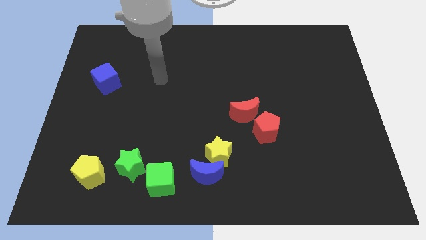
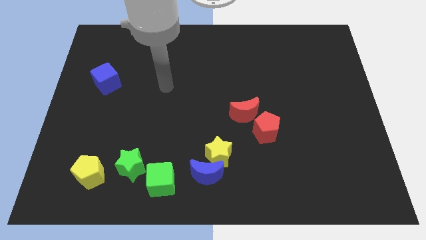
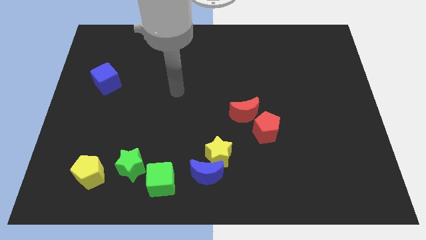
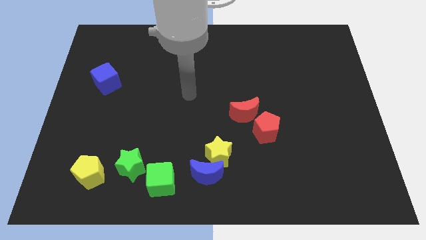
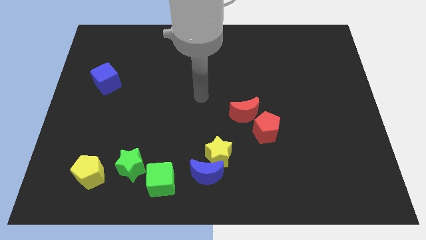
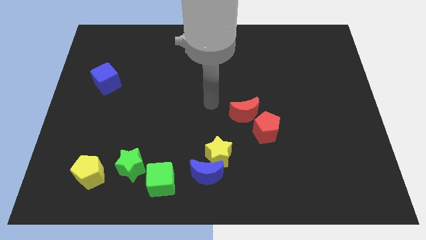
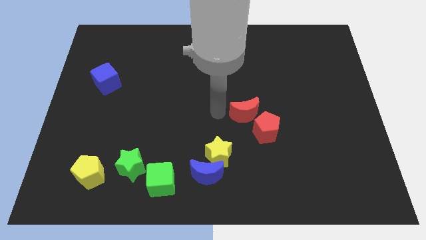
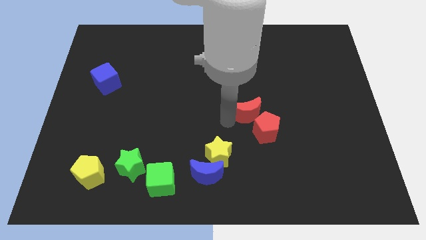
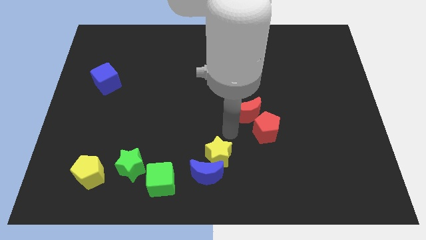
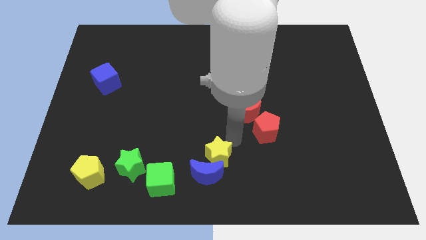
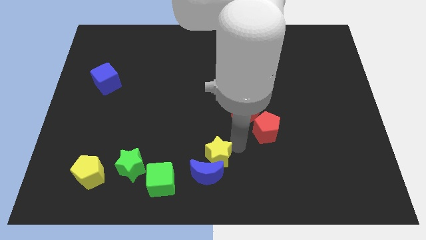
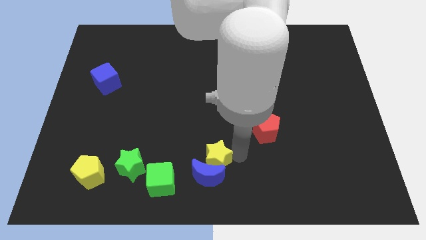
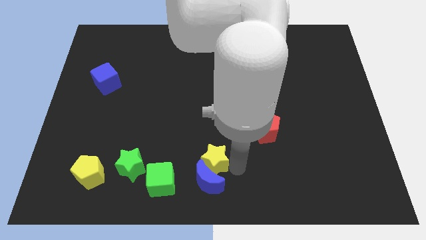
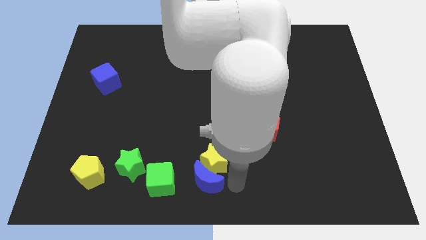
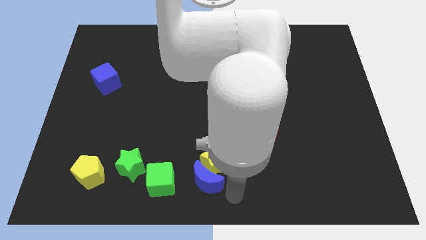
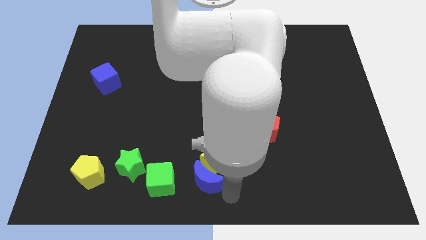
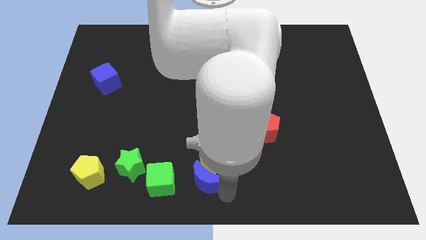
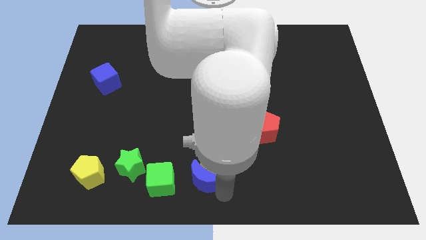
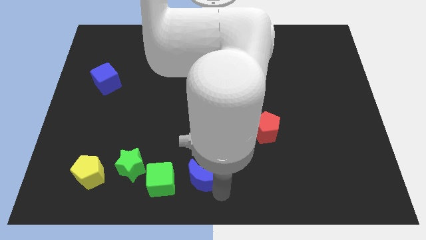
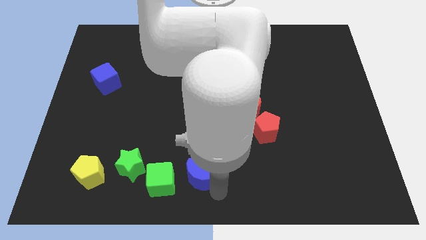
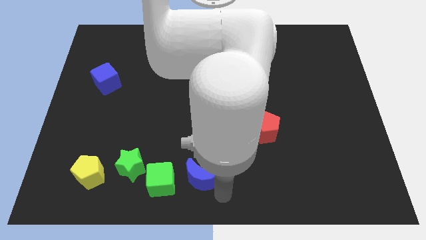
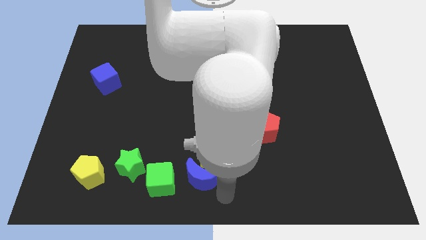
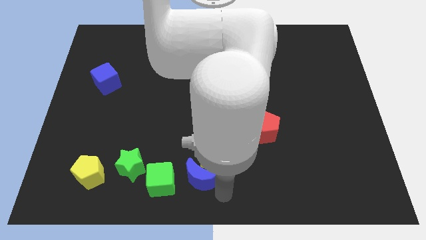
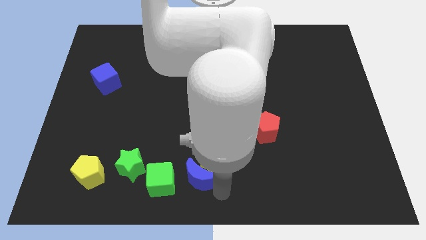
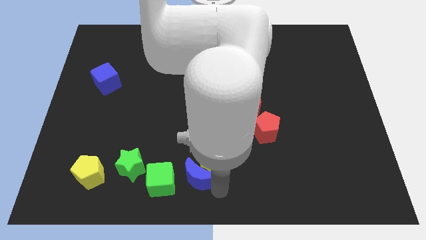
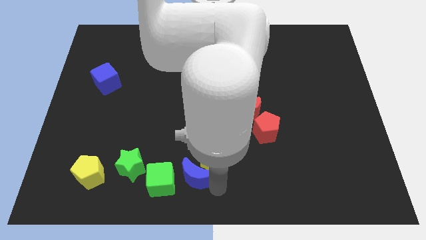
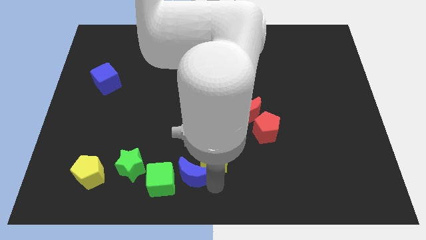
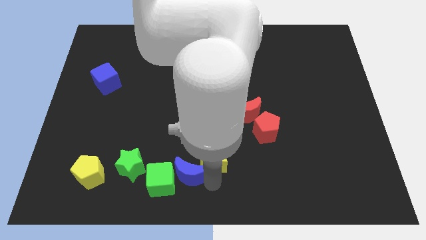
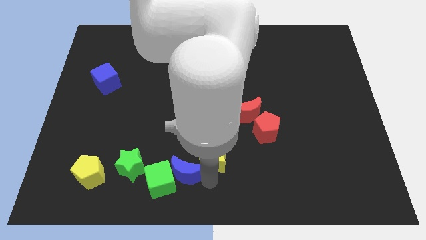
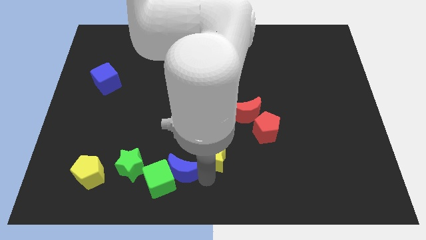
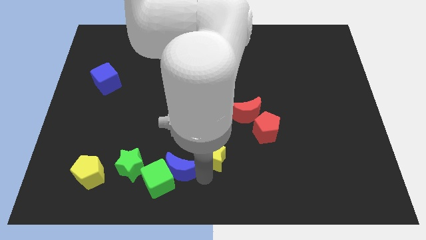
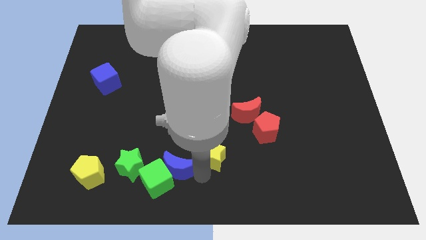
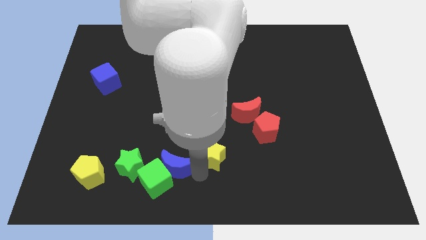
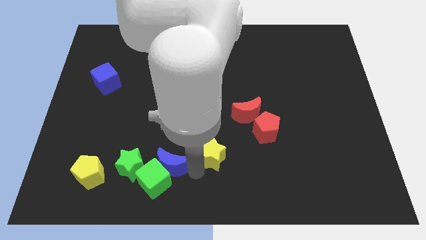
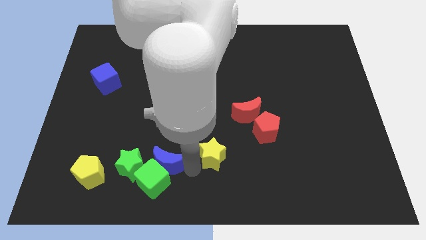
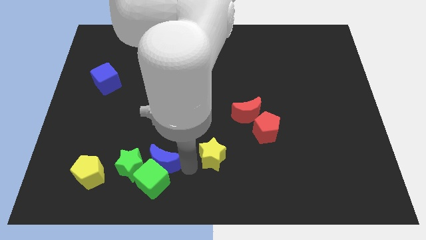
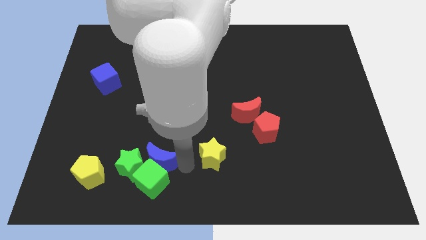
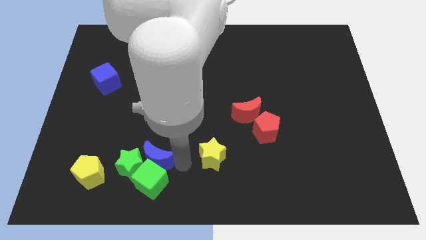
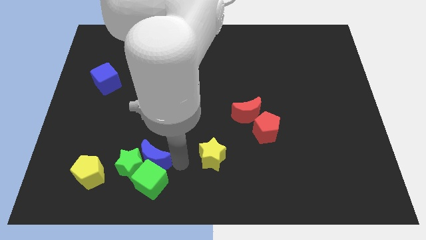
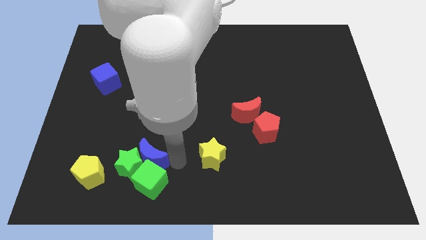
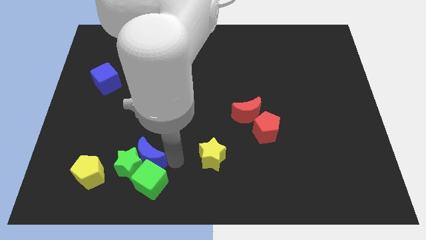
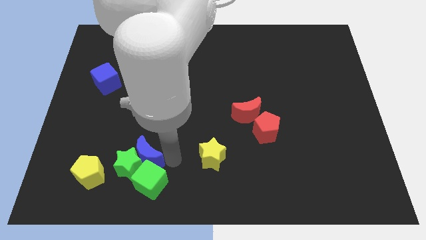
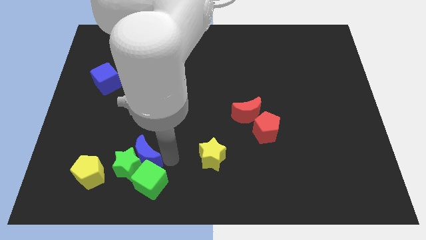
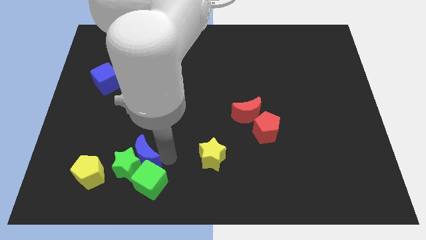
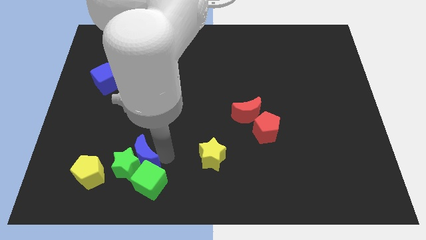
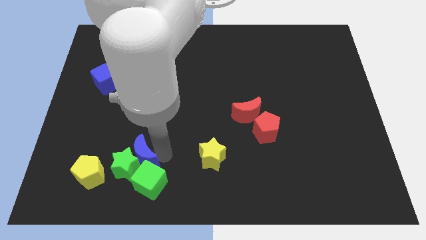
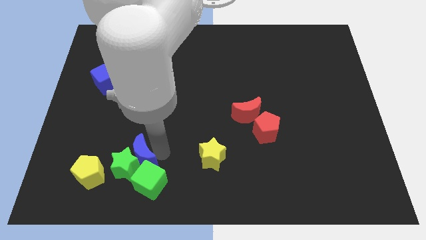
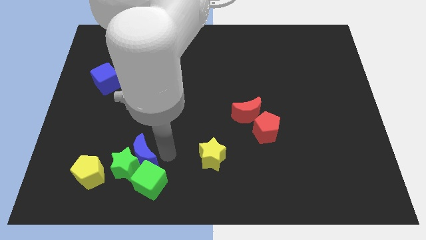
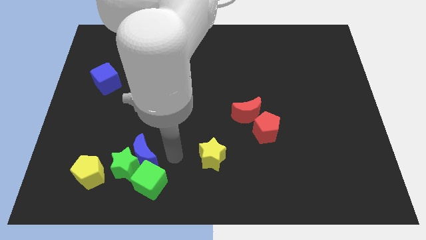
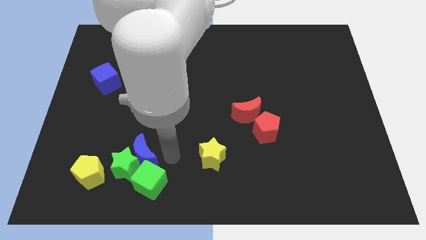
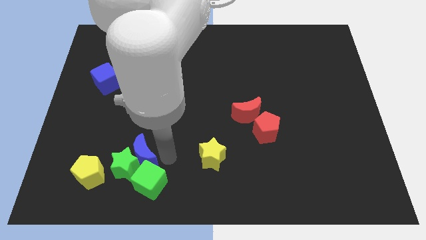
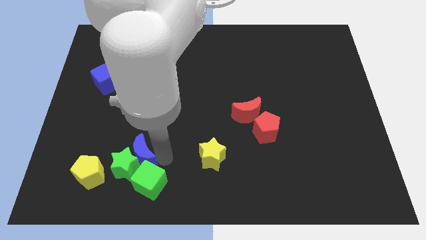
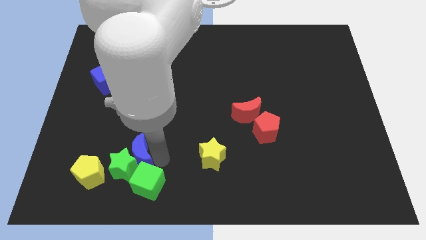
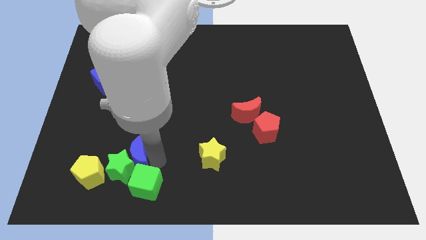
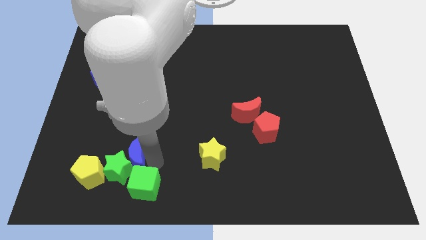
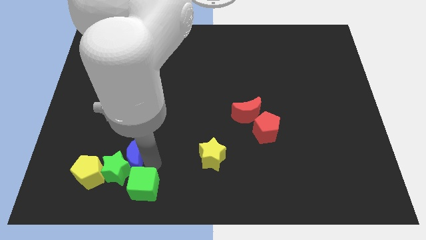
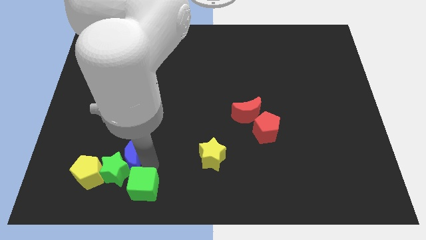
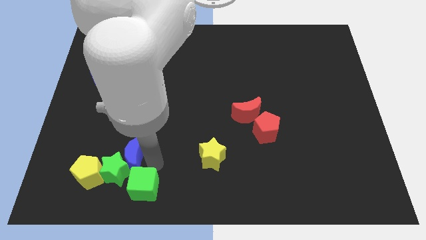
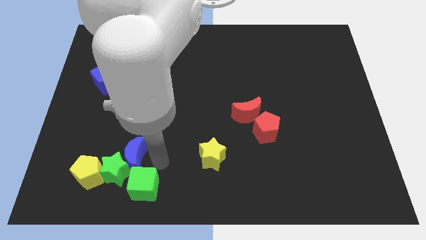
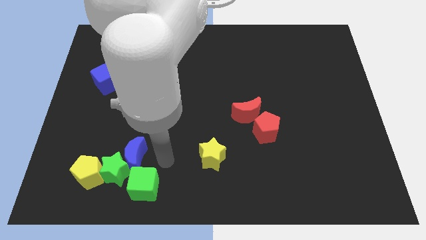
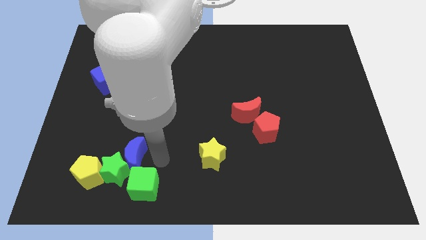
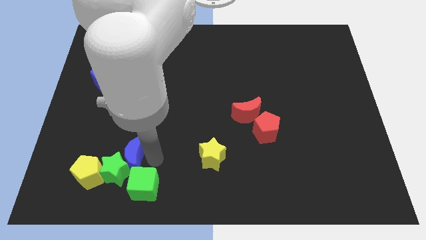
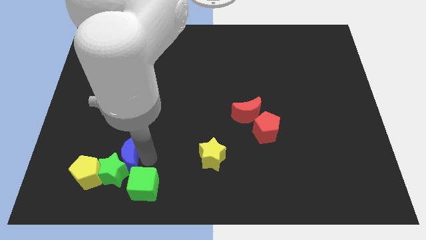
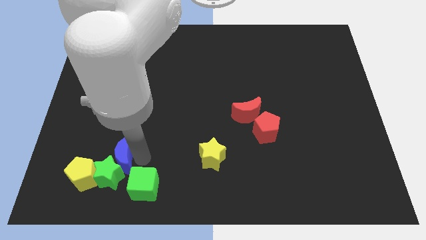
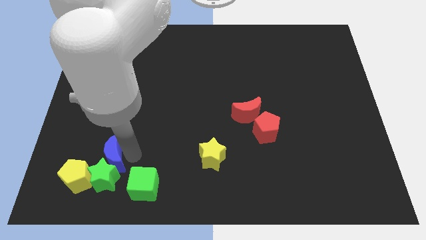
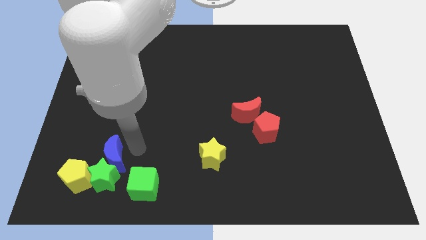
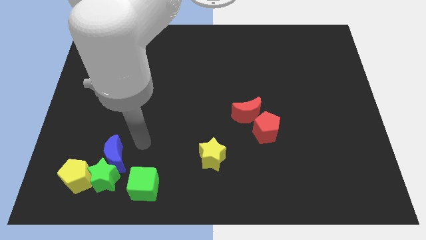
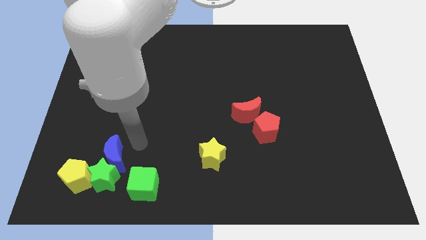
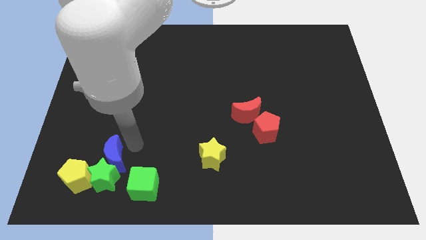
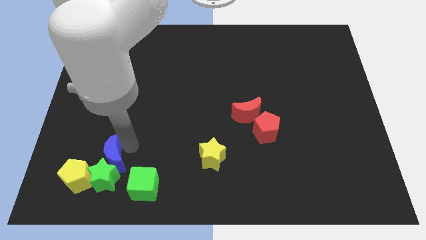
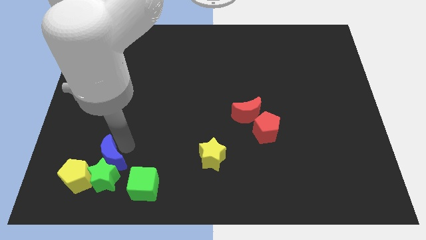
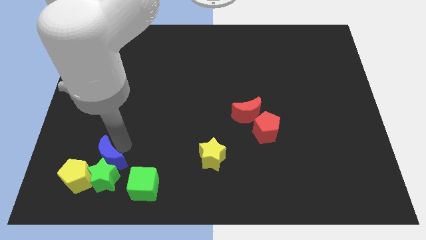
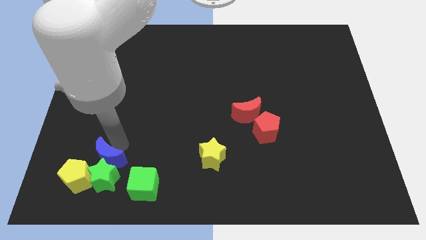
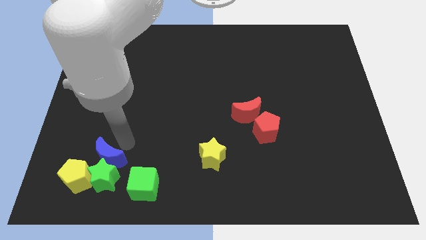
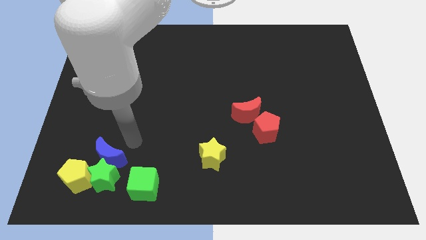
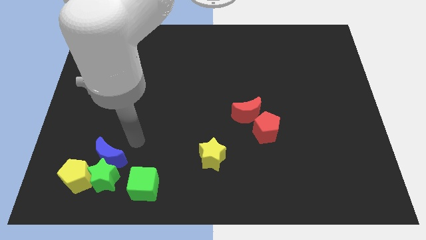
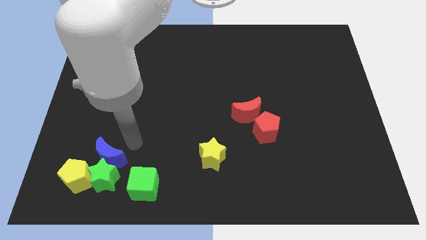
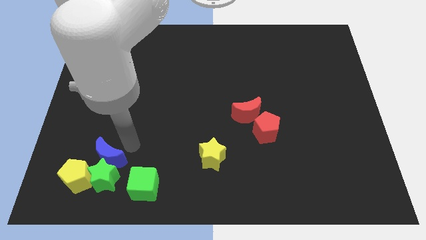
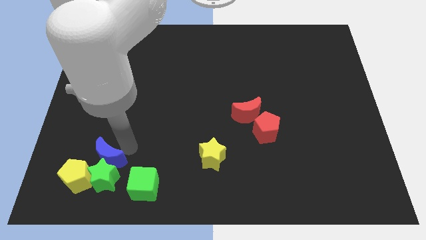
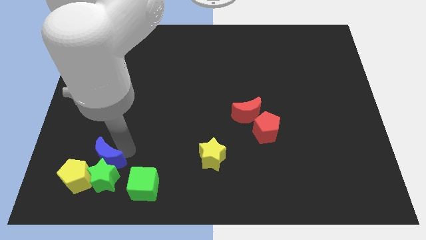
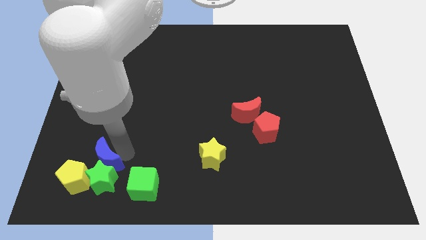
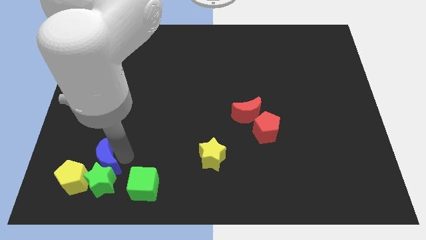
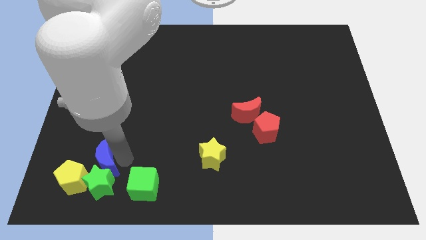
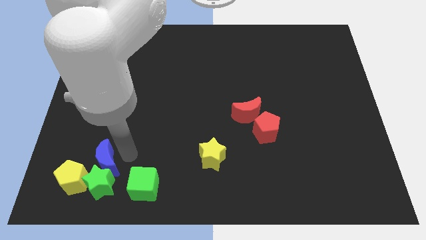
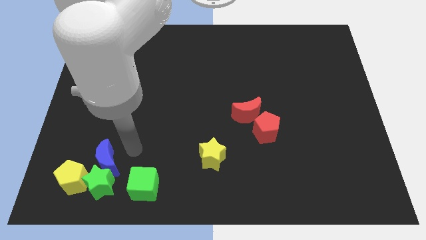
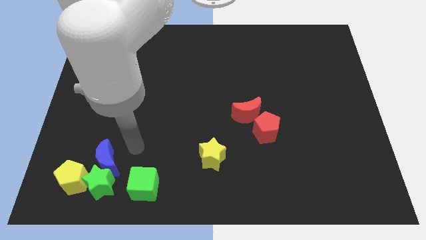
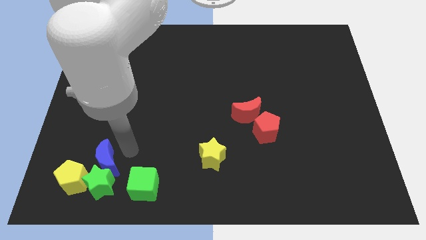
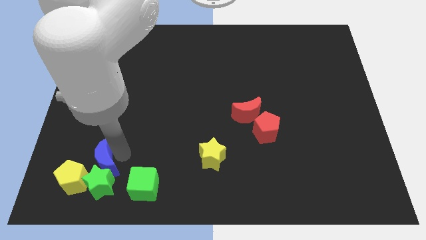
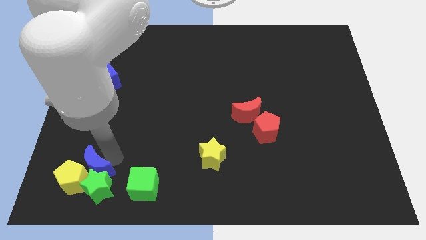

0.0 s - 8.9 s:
move the blue moon to the yellow pentagon
